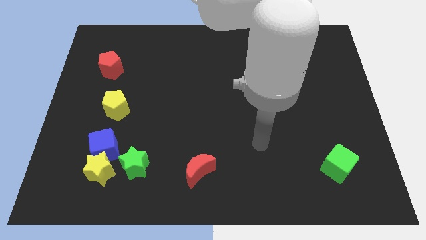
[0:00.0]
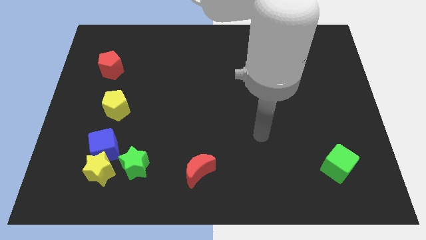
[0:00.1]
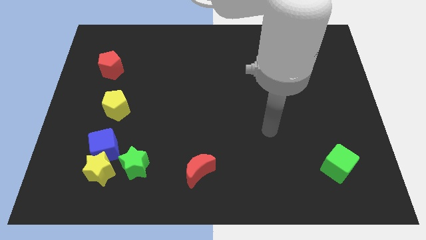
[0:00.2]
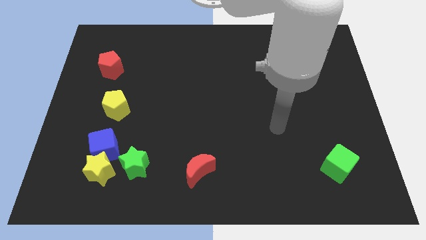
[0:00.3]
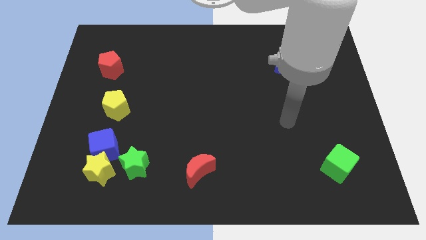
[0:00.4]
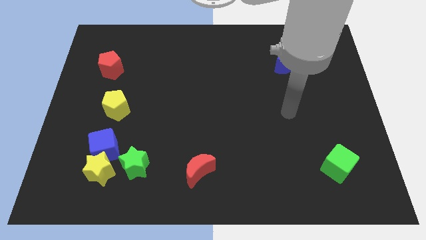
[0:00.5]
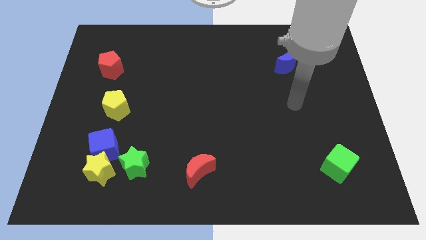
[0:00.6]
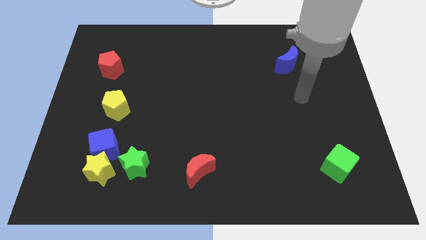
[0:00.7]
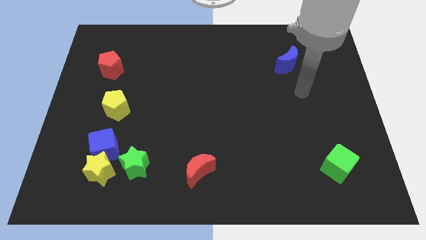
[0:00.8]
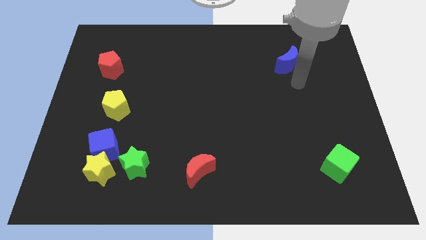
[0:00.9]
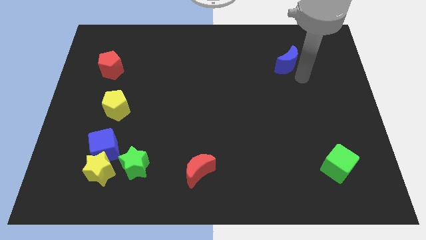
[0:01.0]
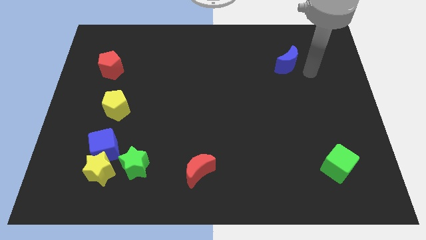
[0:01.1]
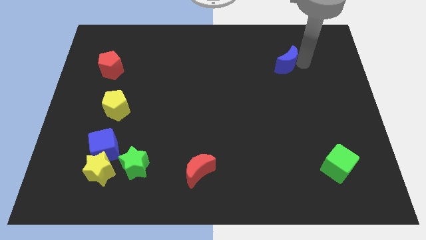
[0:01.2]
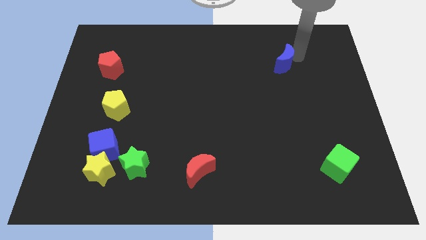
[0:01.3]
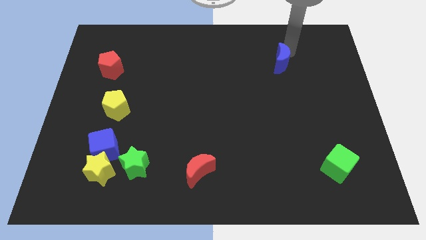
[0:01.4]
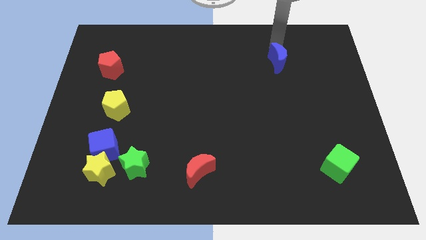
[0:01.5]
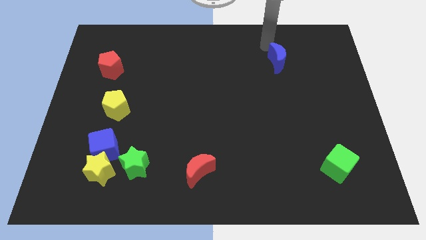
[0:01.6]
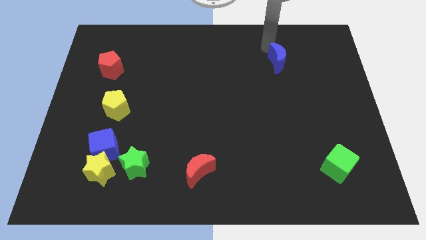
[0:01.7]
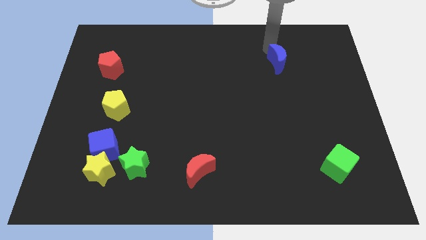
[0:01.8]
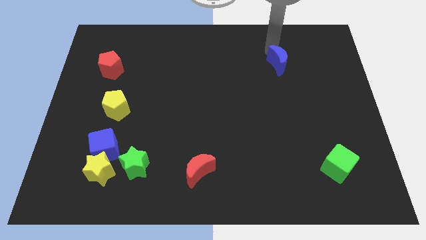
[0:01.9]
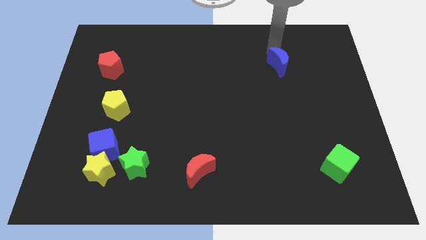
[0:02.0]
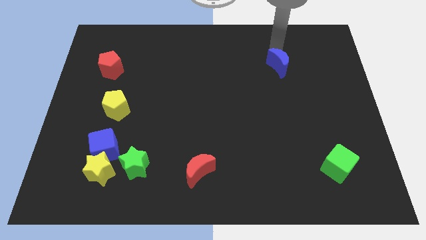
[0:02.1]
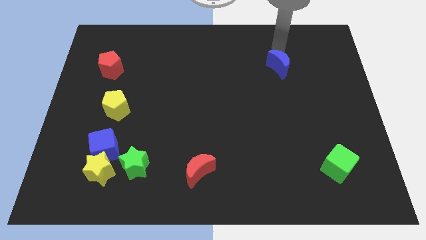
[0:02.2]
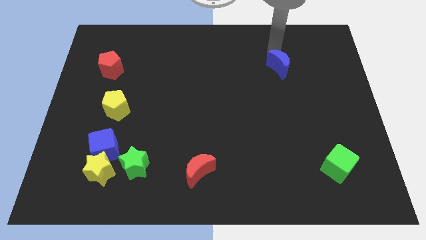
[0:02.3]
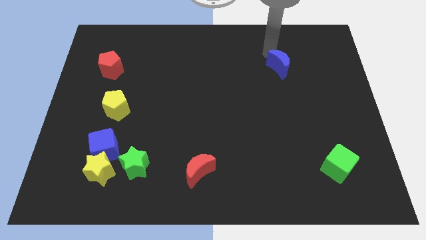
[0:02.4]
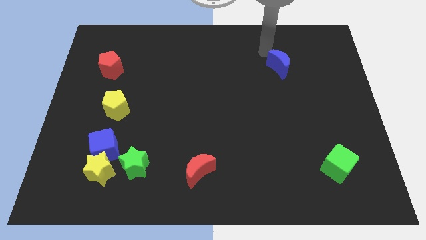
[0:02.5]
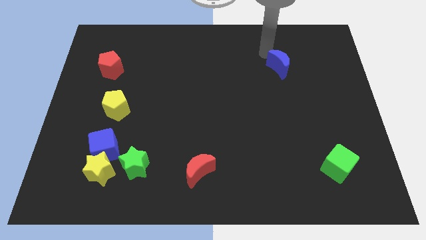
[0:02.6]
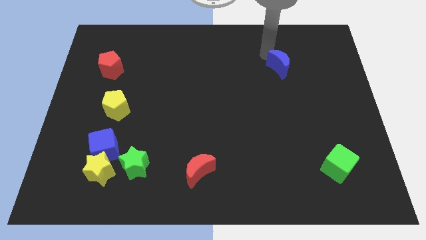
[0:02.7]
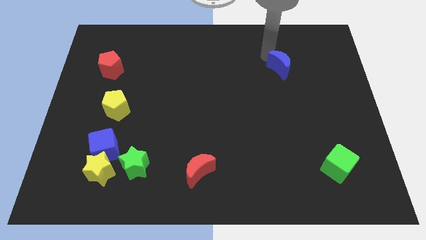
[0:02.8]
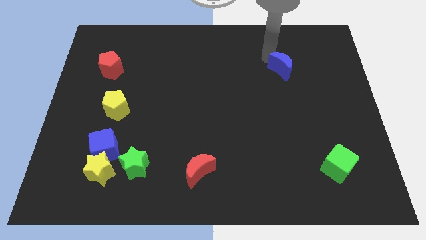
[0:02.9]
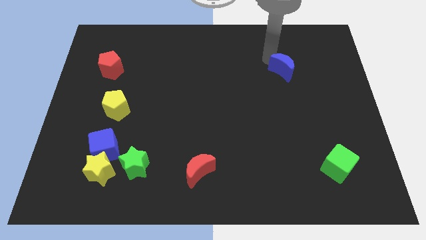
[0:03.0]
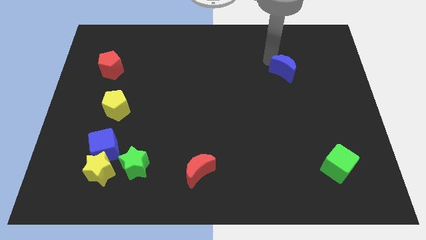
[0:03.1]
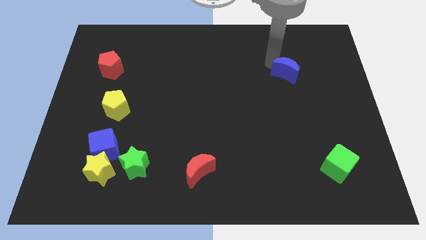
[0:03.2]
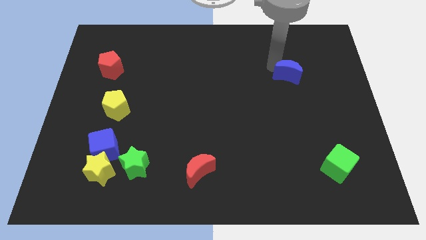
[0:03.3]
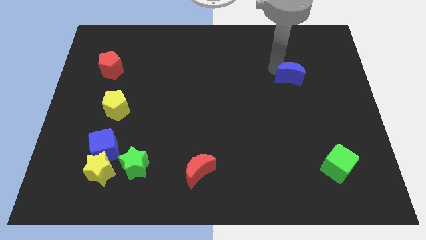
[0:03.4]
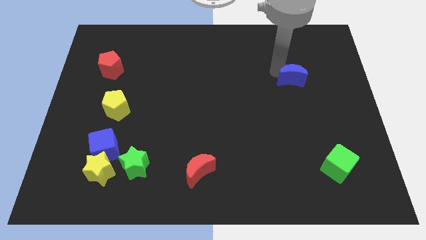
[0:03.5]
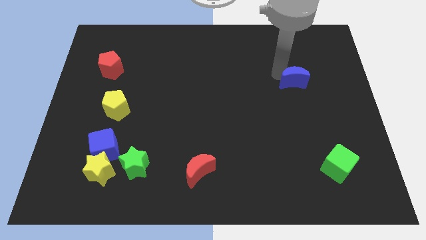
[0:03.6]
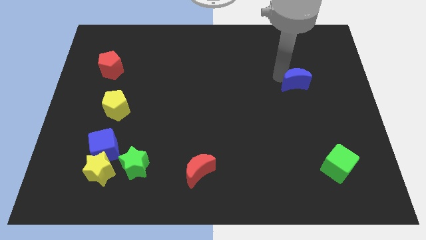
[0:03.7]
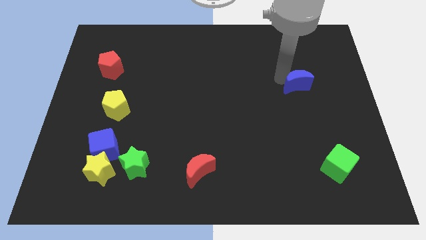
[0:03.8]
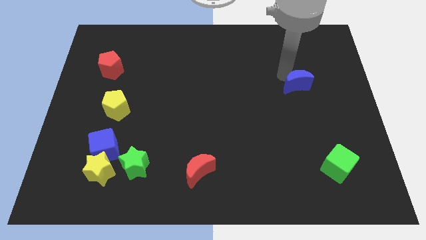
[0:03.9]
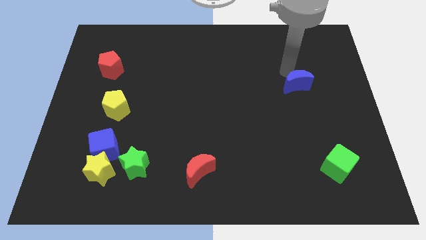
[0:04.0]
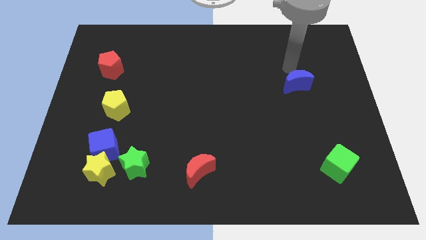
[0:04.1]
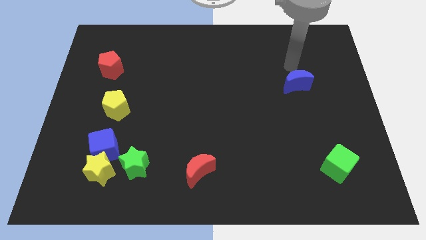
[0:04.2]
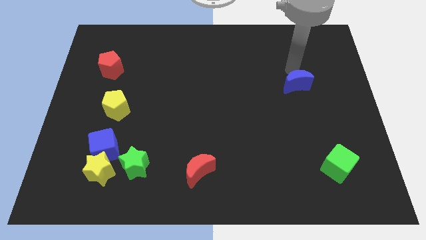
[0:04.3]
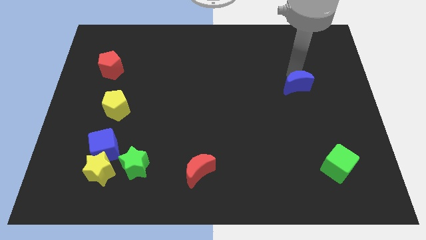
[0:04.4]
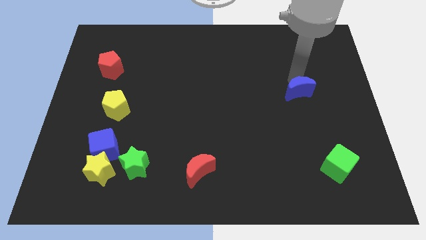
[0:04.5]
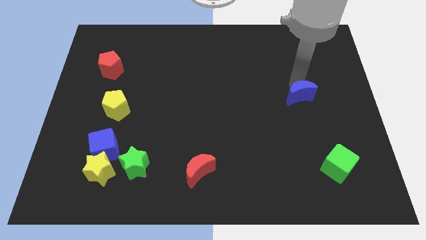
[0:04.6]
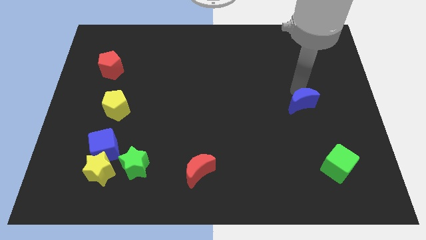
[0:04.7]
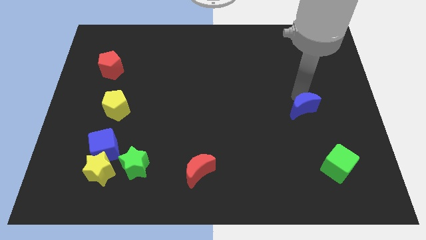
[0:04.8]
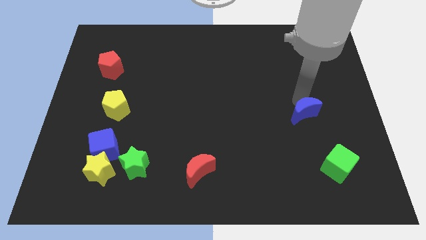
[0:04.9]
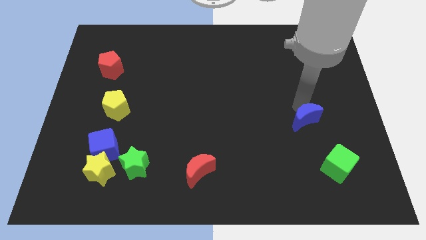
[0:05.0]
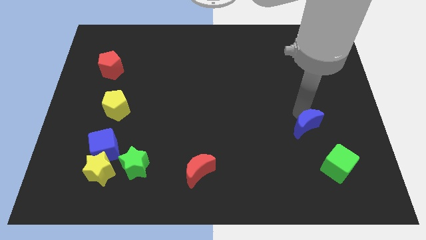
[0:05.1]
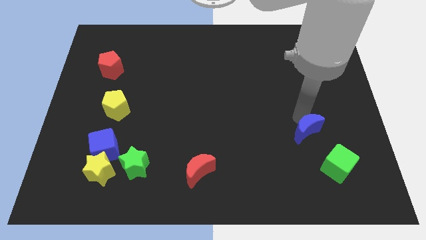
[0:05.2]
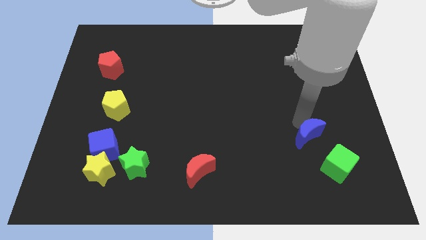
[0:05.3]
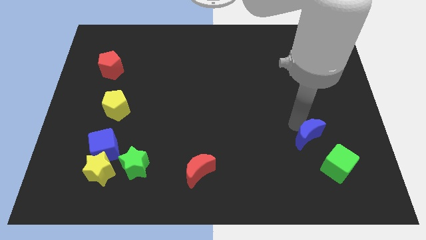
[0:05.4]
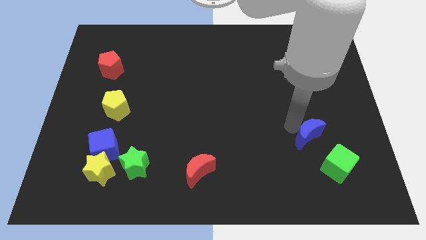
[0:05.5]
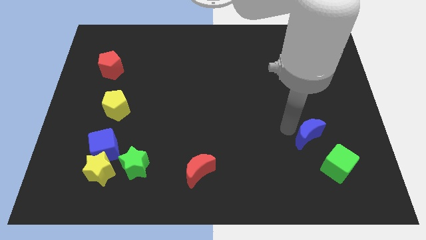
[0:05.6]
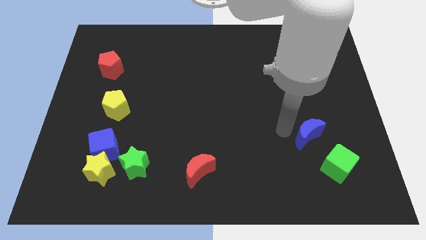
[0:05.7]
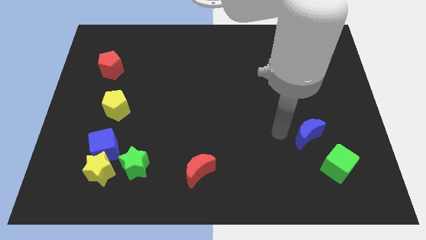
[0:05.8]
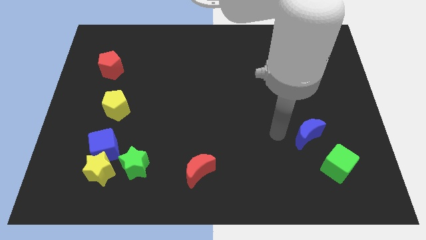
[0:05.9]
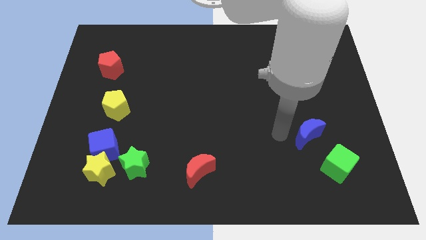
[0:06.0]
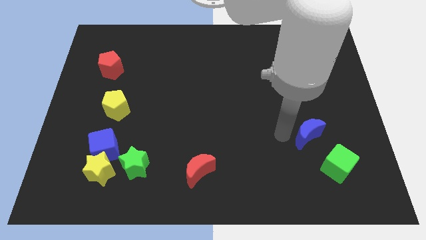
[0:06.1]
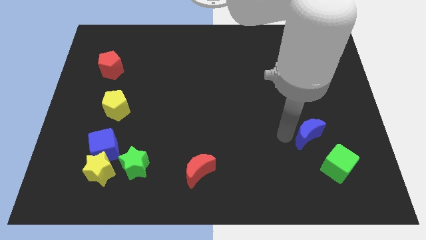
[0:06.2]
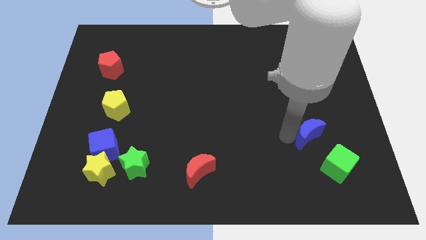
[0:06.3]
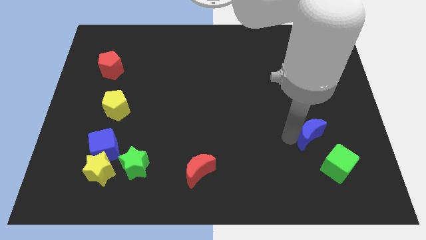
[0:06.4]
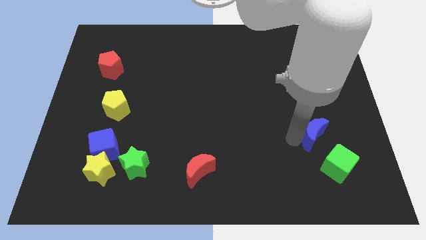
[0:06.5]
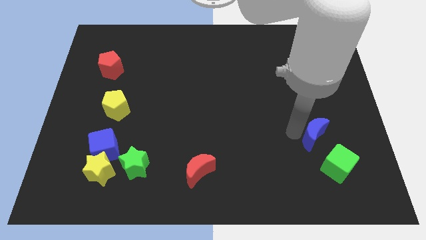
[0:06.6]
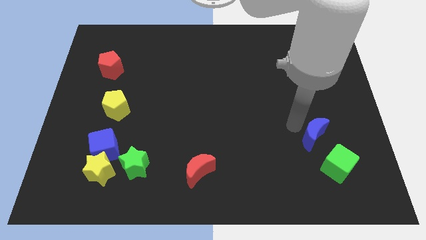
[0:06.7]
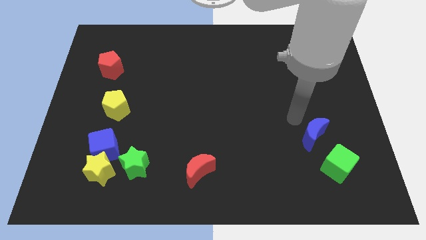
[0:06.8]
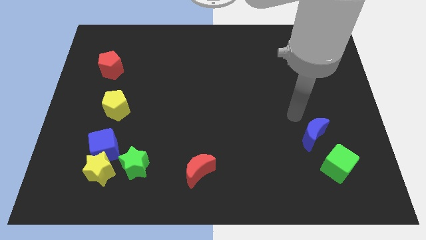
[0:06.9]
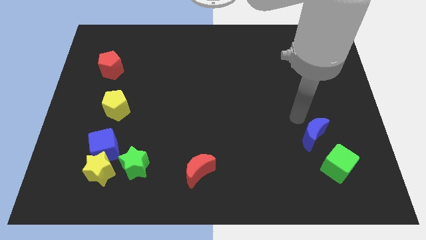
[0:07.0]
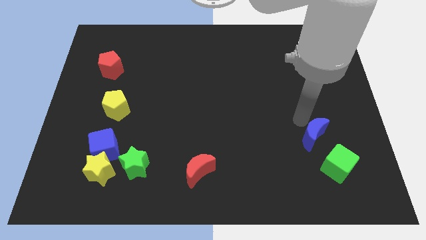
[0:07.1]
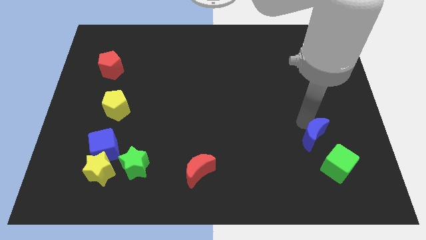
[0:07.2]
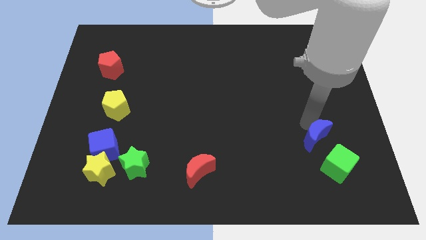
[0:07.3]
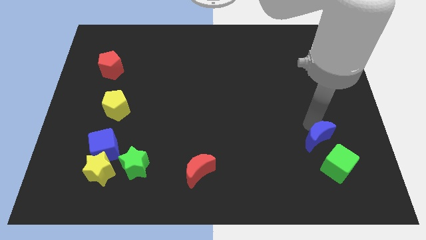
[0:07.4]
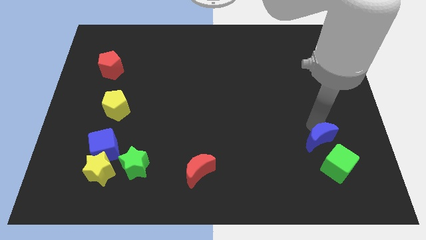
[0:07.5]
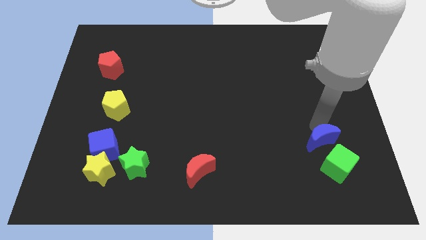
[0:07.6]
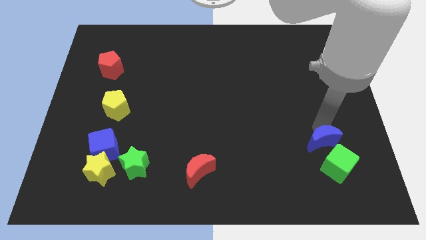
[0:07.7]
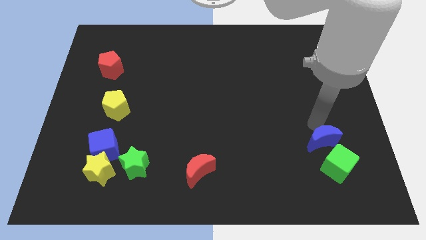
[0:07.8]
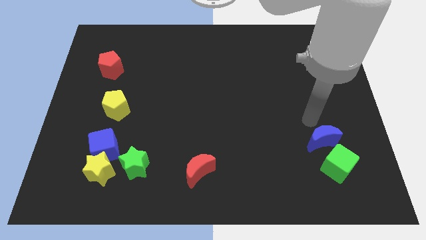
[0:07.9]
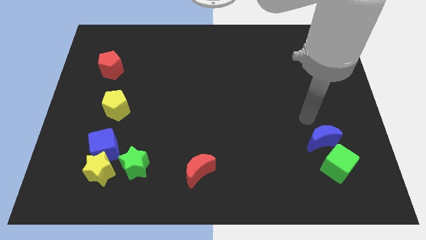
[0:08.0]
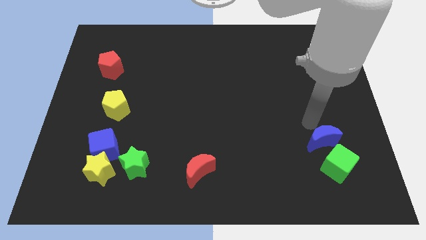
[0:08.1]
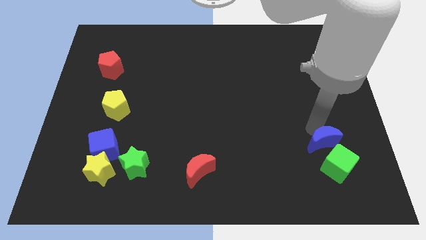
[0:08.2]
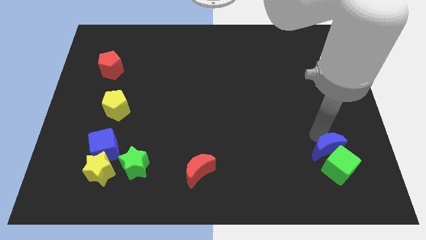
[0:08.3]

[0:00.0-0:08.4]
move the blue moon towards the green cube
